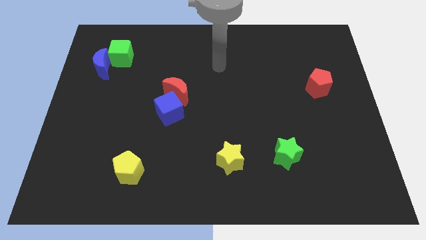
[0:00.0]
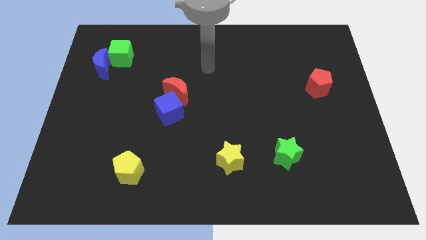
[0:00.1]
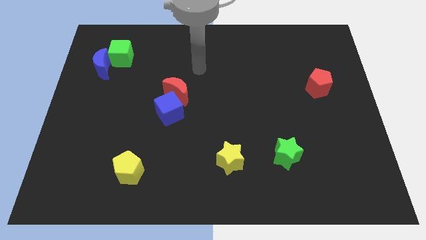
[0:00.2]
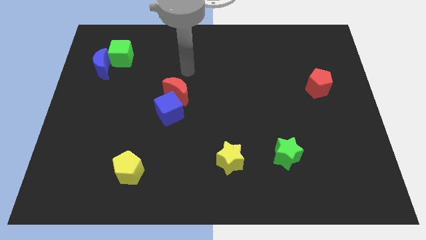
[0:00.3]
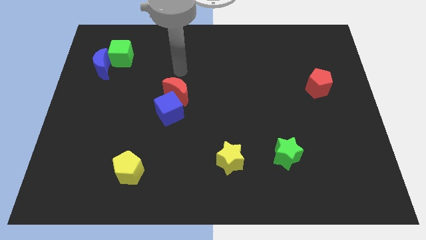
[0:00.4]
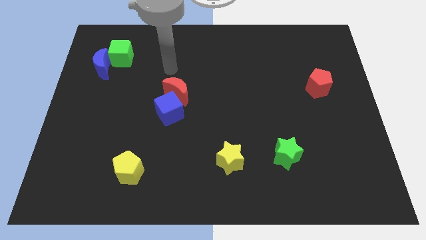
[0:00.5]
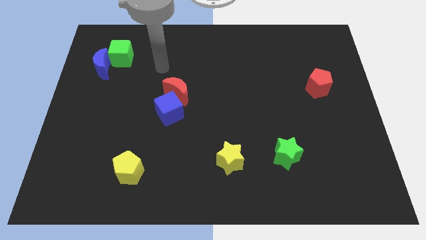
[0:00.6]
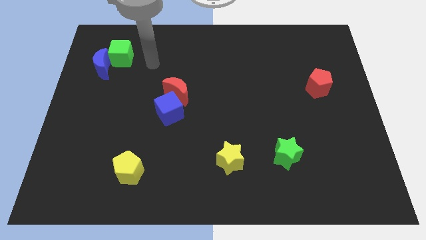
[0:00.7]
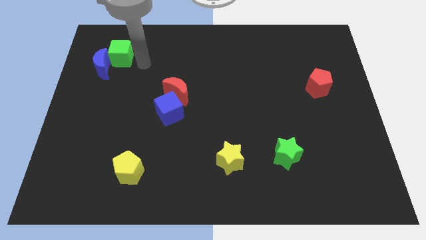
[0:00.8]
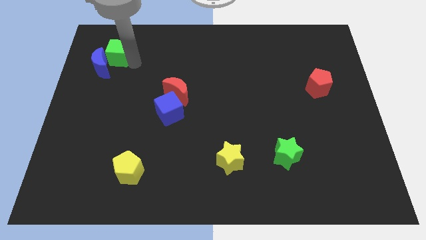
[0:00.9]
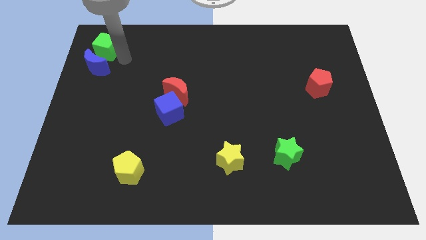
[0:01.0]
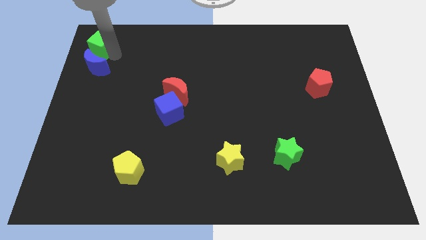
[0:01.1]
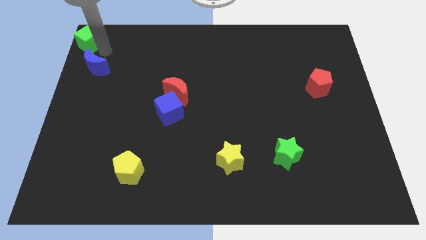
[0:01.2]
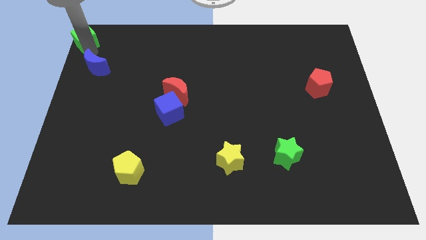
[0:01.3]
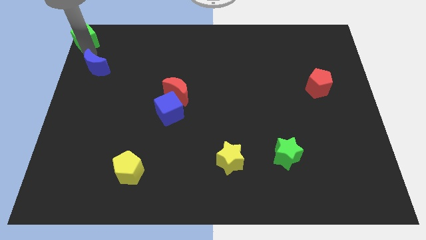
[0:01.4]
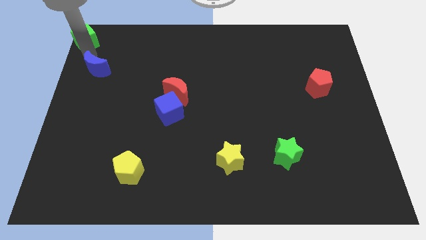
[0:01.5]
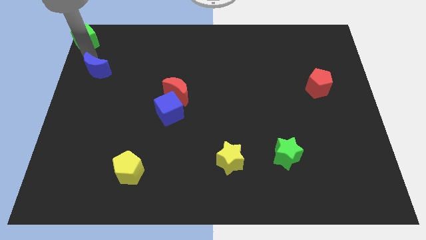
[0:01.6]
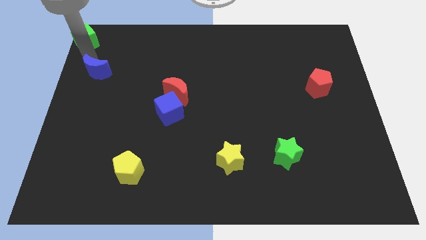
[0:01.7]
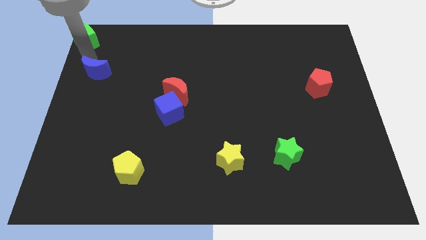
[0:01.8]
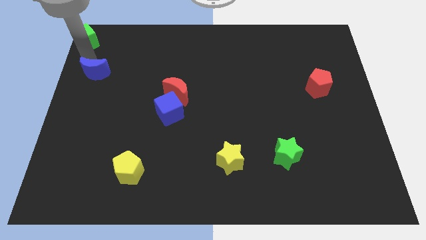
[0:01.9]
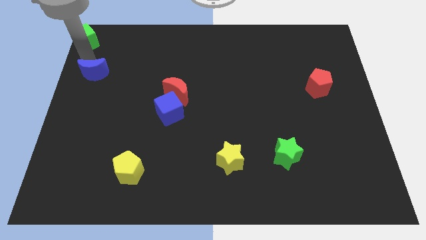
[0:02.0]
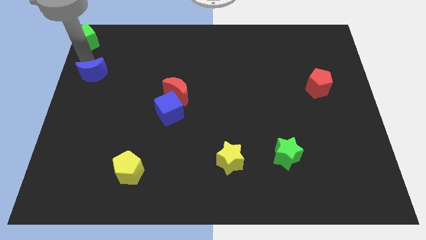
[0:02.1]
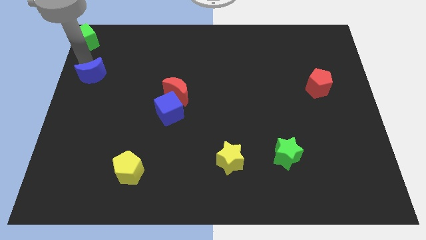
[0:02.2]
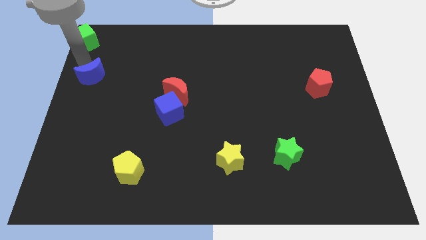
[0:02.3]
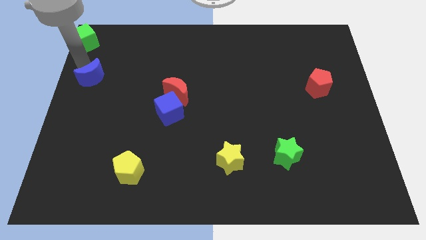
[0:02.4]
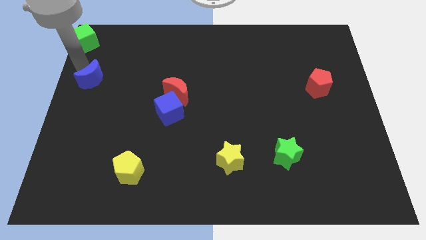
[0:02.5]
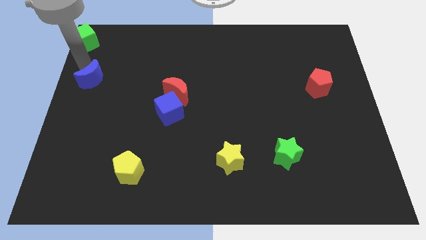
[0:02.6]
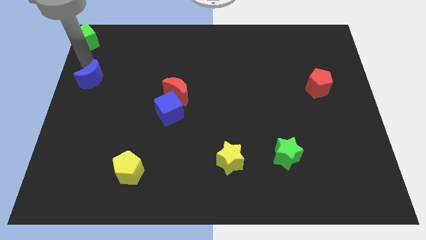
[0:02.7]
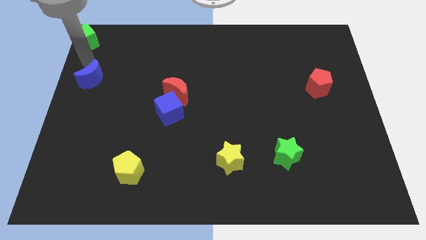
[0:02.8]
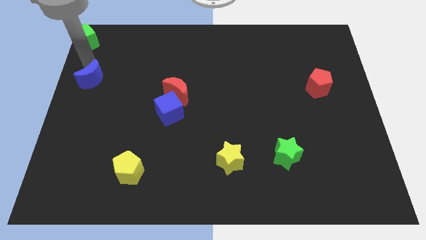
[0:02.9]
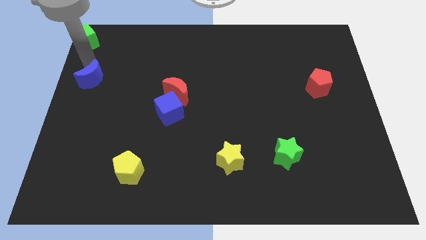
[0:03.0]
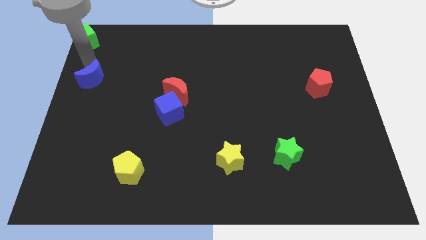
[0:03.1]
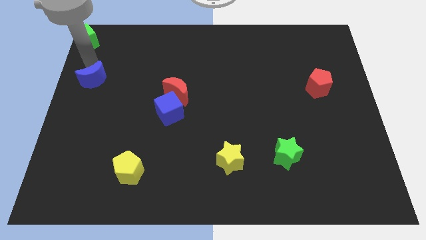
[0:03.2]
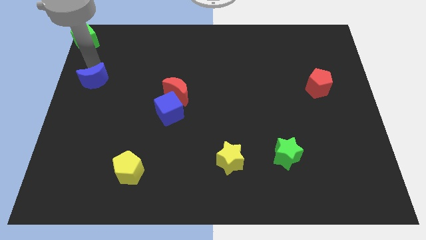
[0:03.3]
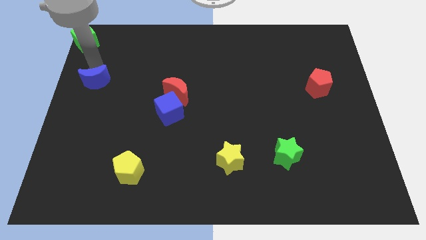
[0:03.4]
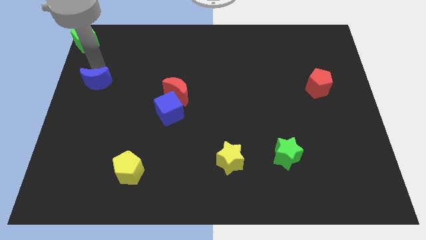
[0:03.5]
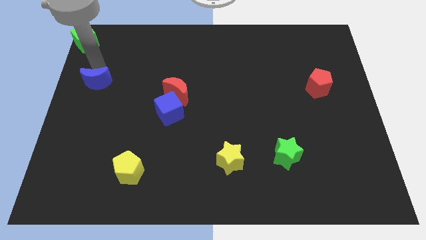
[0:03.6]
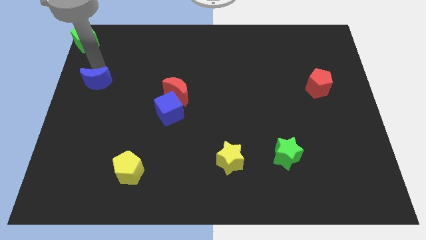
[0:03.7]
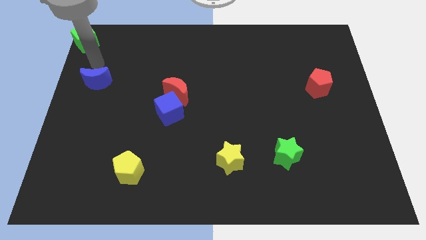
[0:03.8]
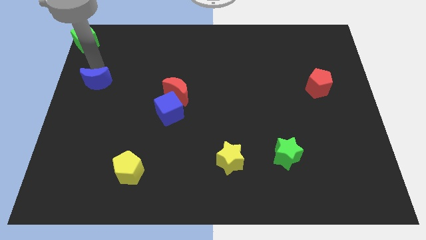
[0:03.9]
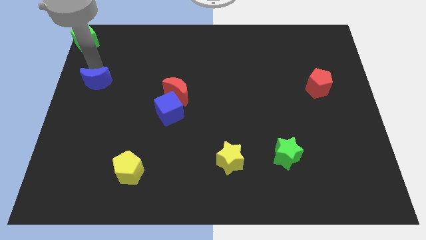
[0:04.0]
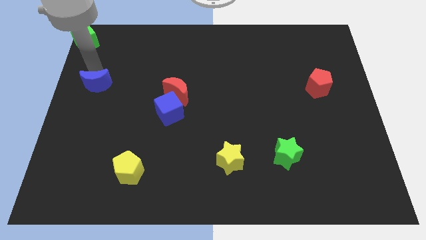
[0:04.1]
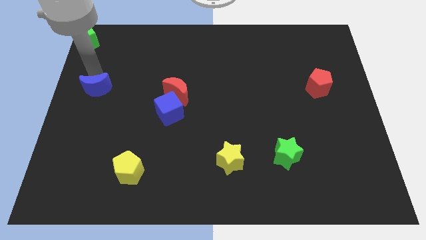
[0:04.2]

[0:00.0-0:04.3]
slide the blue moon a little bit downwards

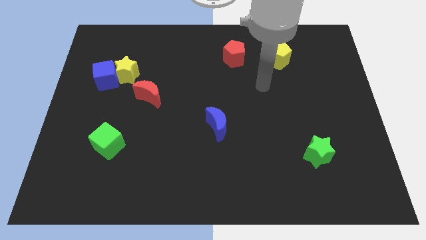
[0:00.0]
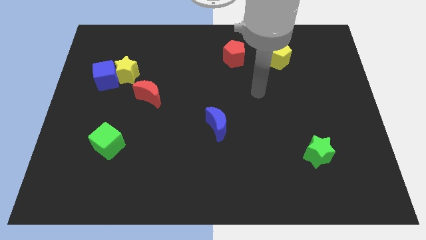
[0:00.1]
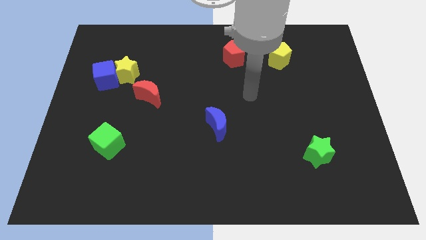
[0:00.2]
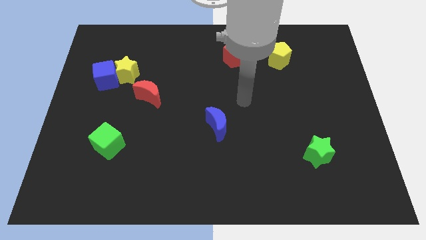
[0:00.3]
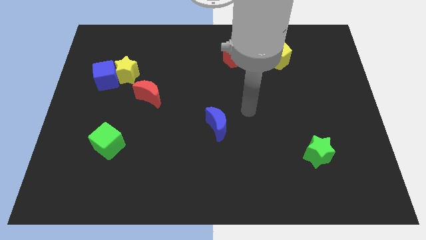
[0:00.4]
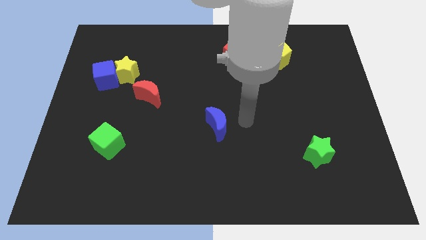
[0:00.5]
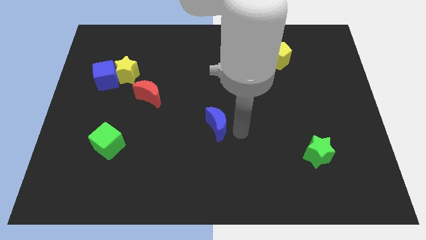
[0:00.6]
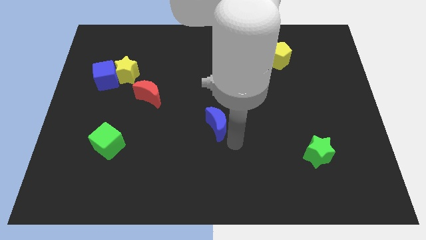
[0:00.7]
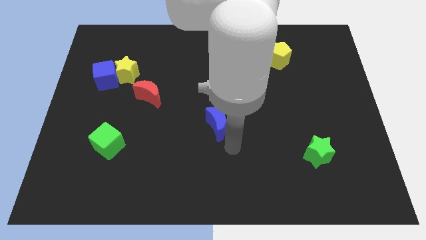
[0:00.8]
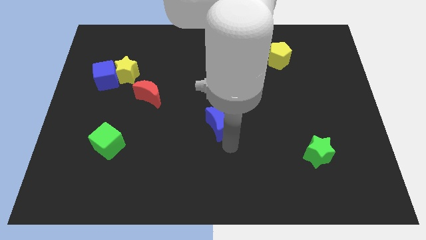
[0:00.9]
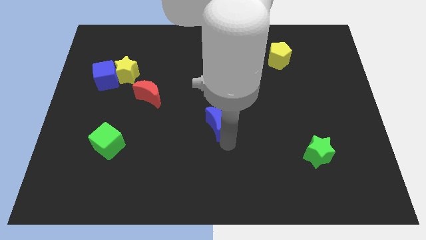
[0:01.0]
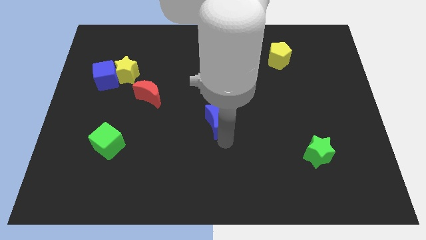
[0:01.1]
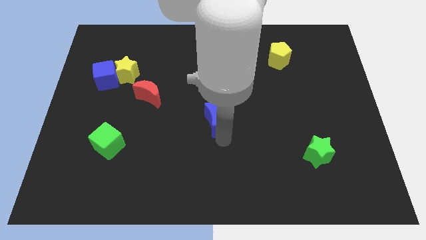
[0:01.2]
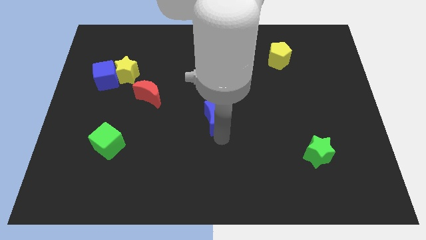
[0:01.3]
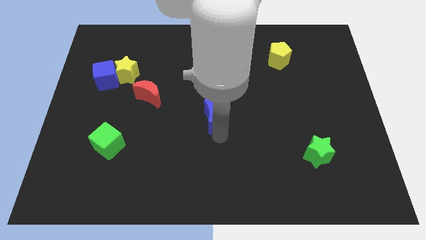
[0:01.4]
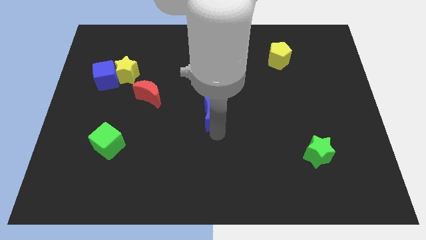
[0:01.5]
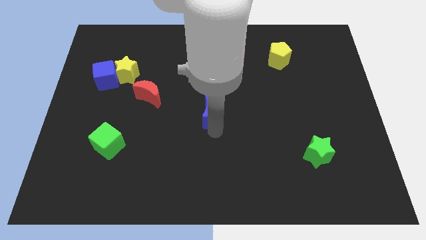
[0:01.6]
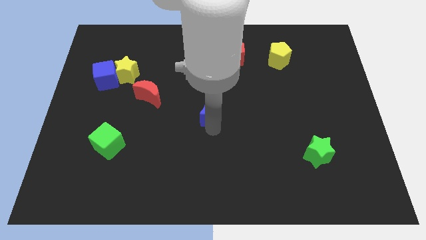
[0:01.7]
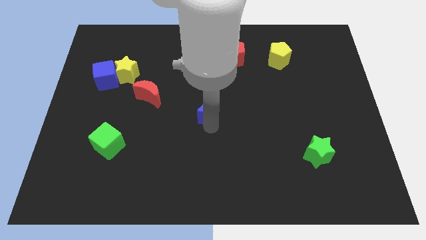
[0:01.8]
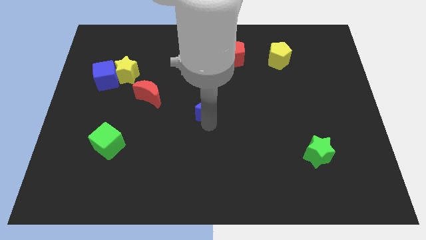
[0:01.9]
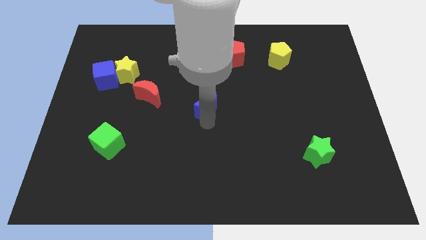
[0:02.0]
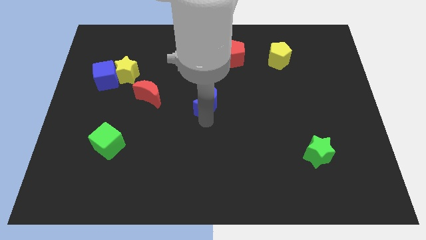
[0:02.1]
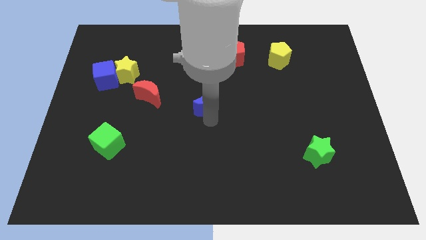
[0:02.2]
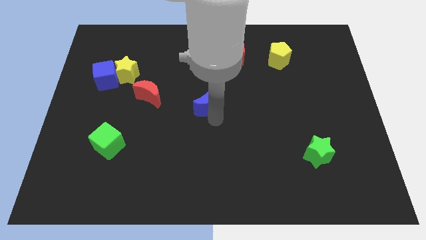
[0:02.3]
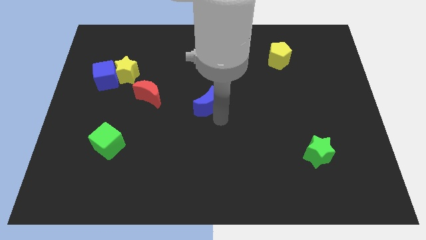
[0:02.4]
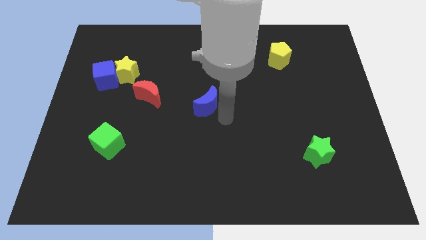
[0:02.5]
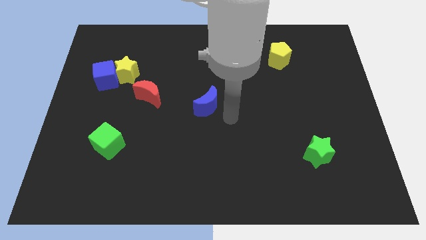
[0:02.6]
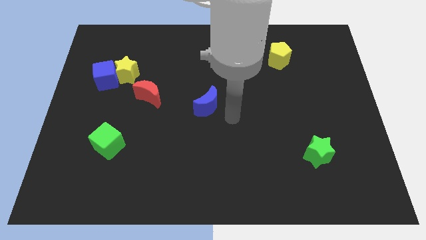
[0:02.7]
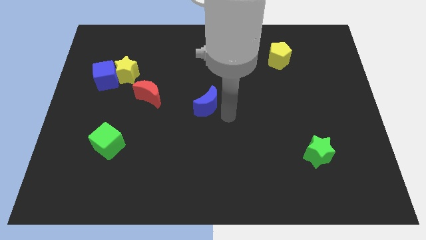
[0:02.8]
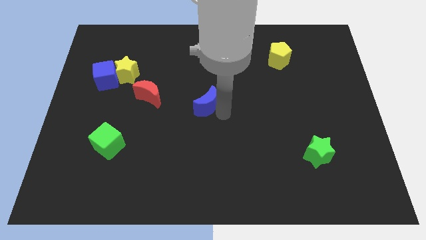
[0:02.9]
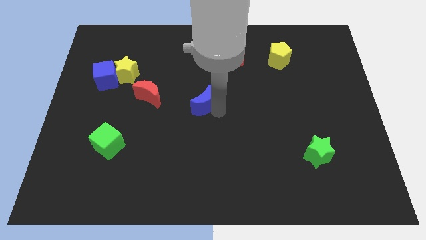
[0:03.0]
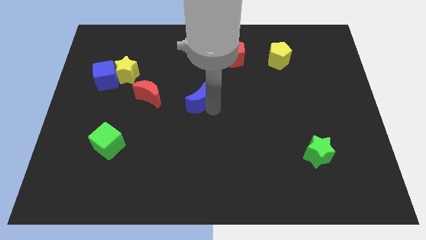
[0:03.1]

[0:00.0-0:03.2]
move the blue moon a bit upwards and left

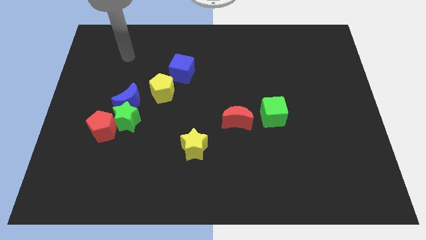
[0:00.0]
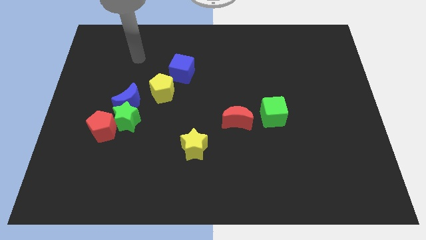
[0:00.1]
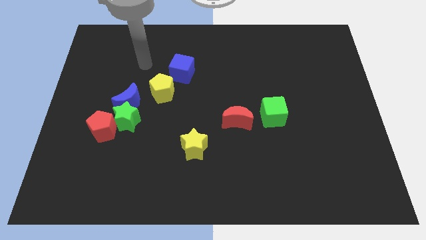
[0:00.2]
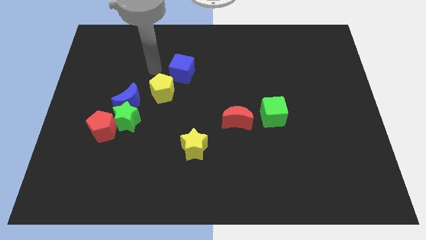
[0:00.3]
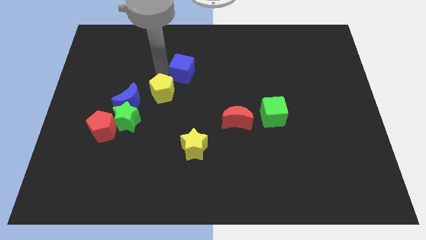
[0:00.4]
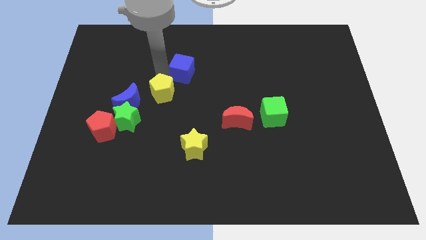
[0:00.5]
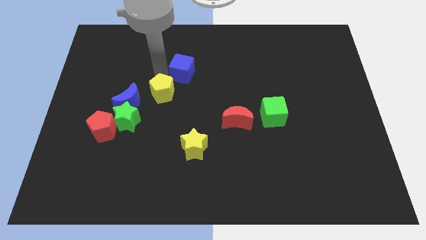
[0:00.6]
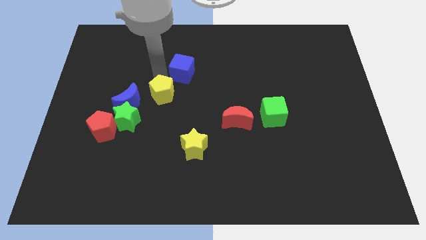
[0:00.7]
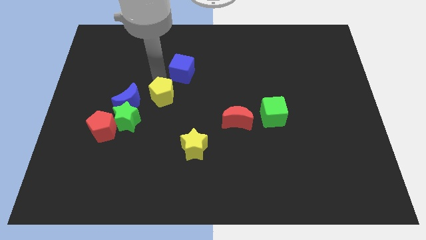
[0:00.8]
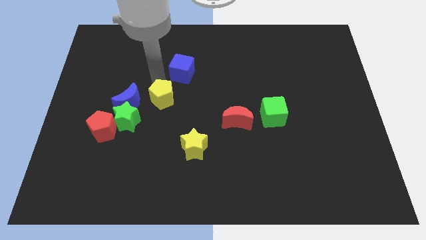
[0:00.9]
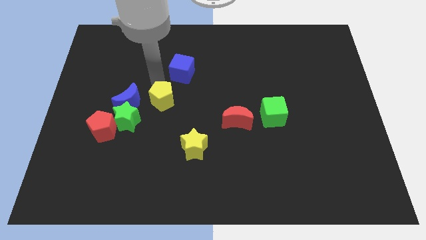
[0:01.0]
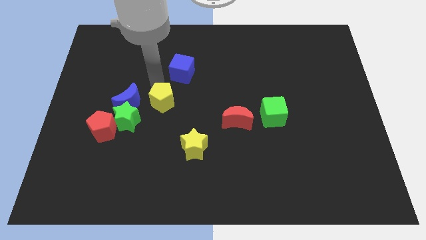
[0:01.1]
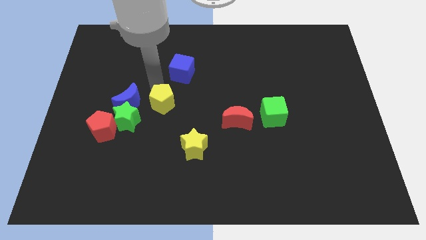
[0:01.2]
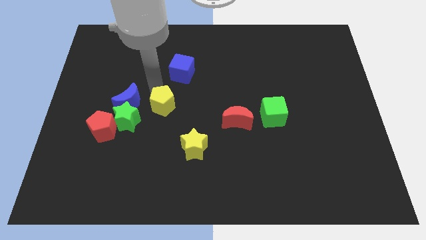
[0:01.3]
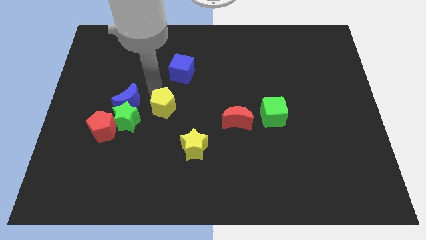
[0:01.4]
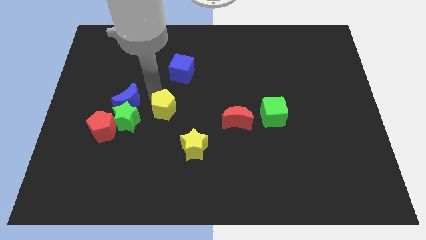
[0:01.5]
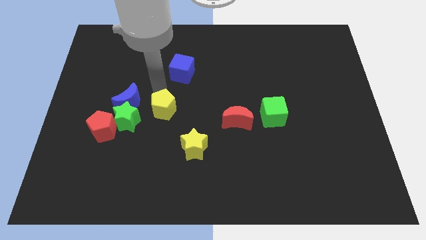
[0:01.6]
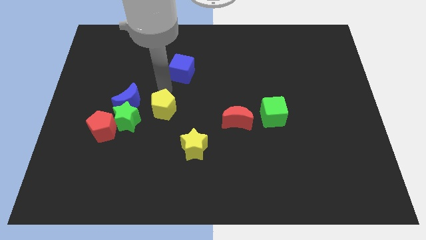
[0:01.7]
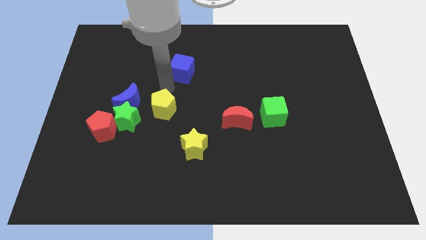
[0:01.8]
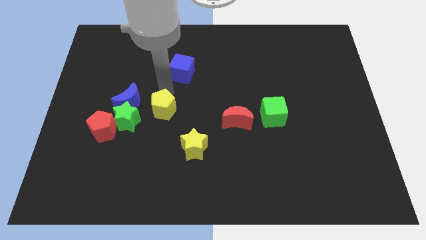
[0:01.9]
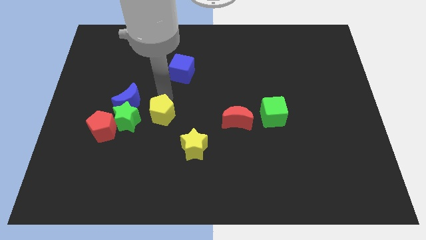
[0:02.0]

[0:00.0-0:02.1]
move the yellow pentagon down a bit
